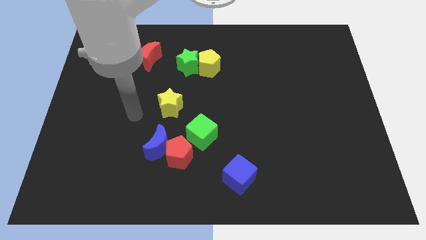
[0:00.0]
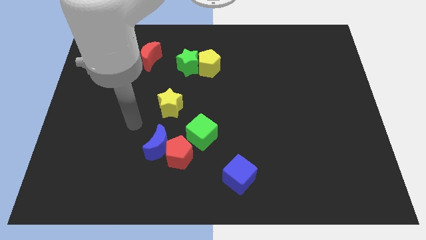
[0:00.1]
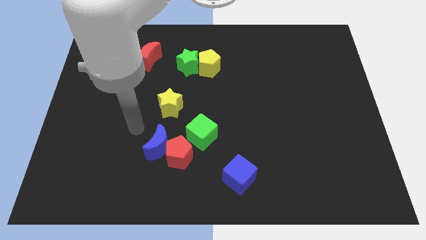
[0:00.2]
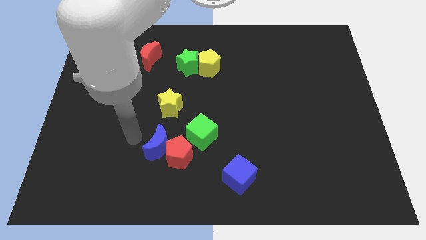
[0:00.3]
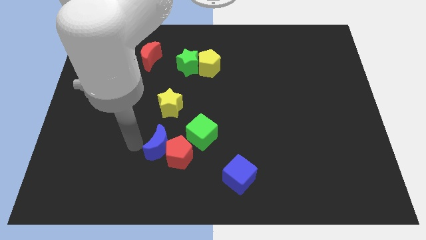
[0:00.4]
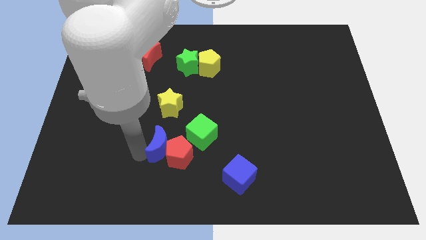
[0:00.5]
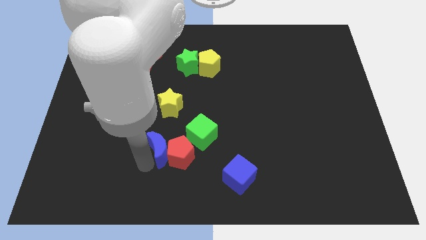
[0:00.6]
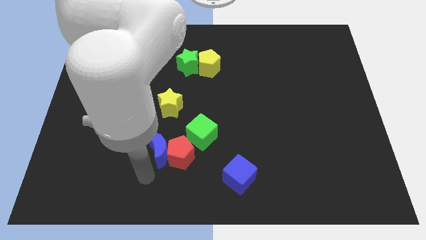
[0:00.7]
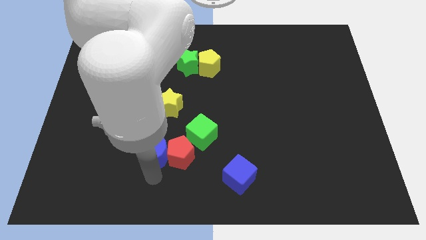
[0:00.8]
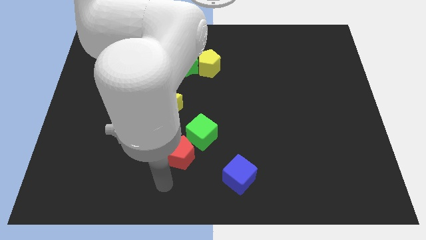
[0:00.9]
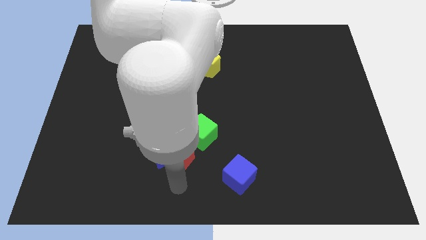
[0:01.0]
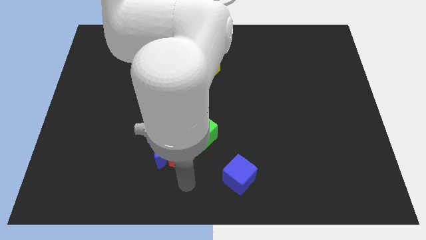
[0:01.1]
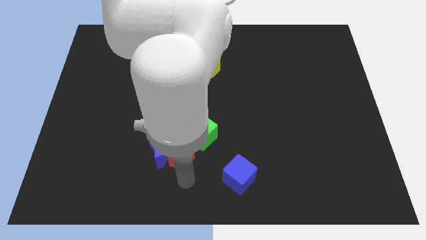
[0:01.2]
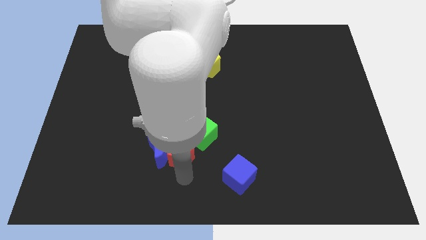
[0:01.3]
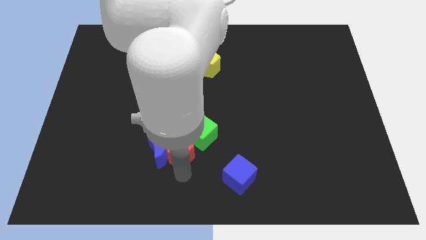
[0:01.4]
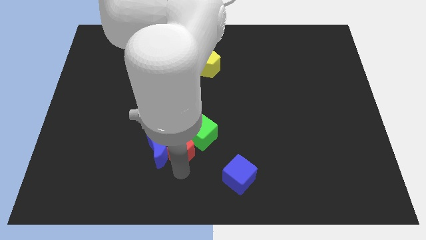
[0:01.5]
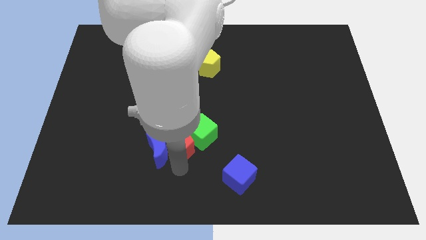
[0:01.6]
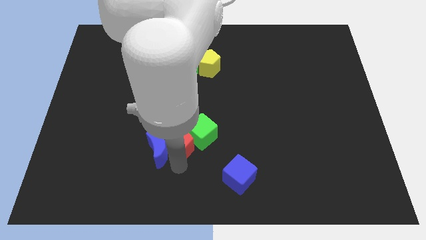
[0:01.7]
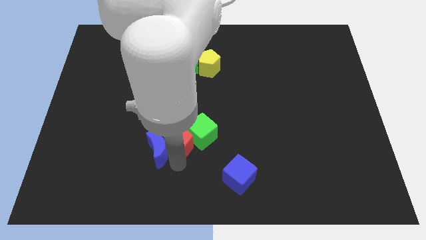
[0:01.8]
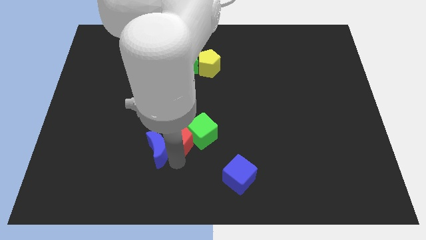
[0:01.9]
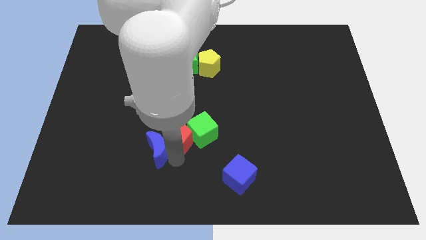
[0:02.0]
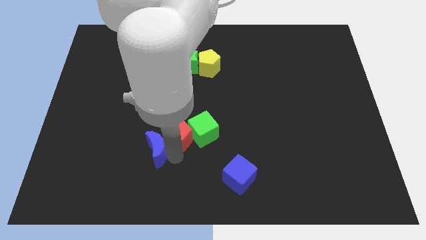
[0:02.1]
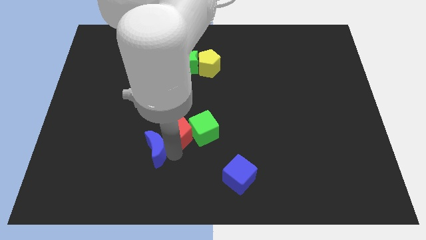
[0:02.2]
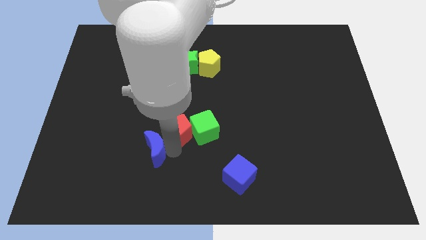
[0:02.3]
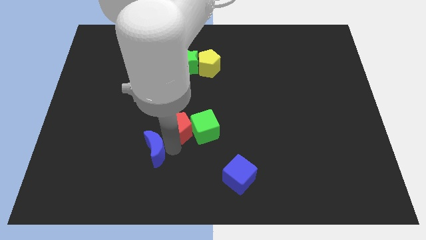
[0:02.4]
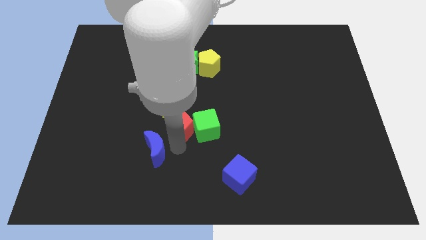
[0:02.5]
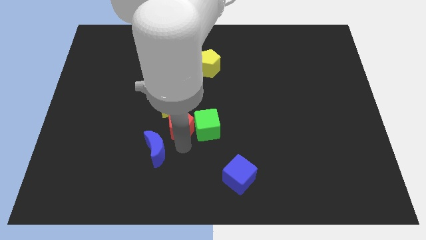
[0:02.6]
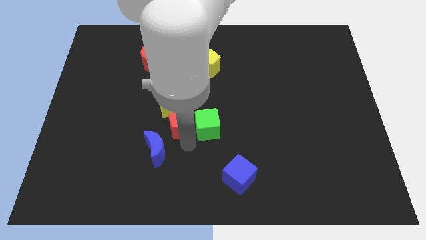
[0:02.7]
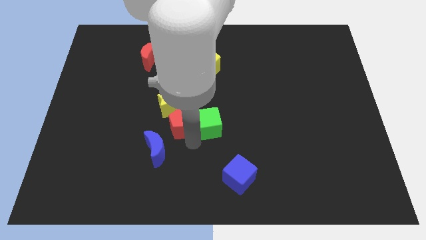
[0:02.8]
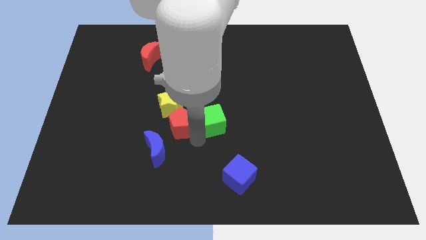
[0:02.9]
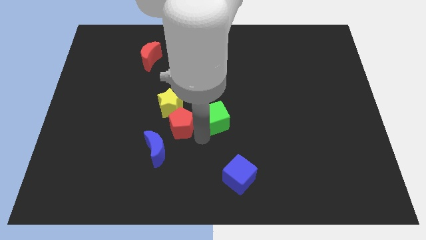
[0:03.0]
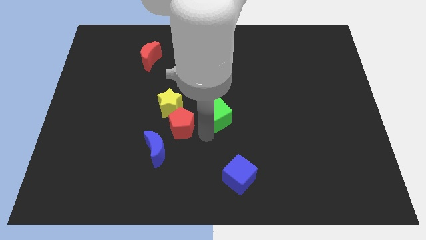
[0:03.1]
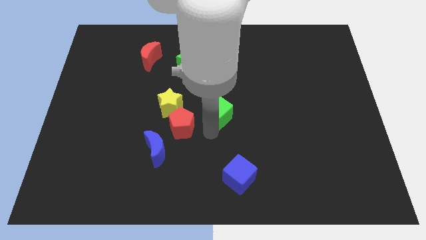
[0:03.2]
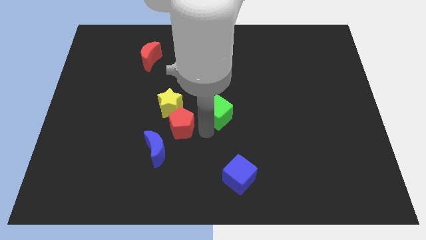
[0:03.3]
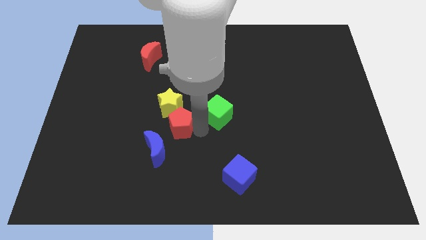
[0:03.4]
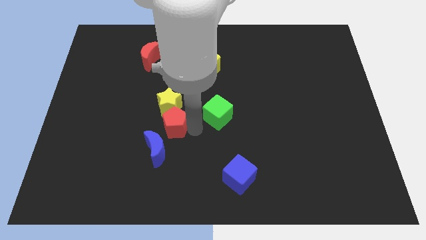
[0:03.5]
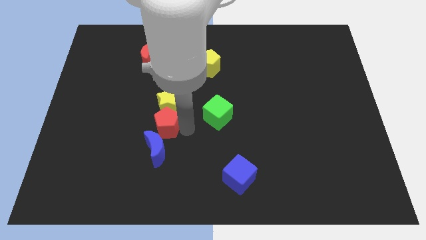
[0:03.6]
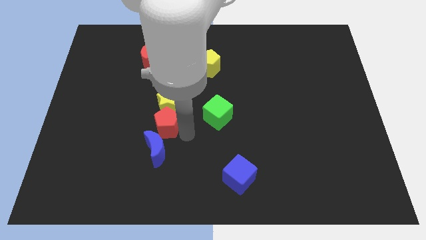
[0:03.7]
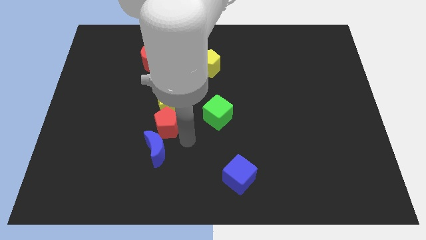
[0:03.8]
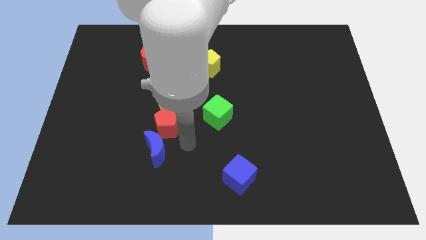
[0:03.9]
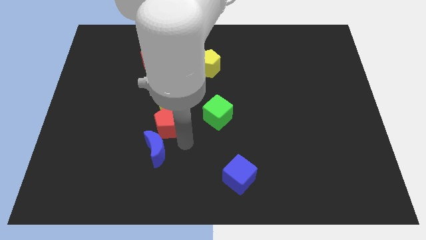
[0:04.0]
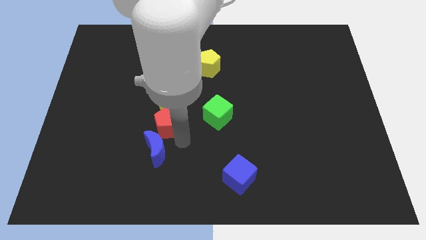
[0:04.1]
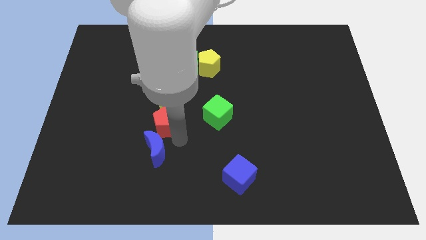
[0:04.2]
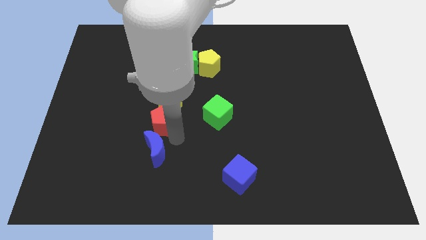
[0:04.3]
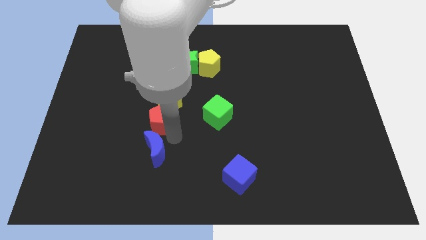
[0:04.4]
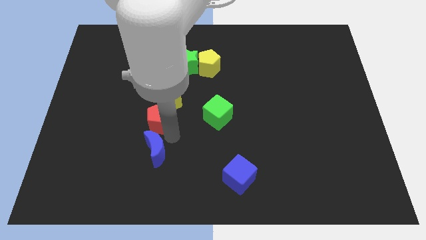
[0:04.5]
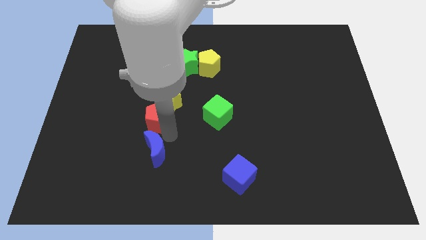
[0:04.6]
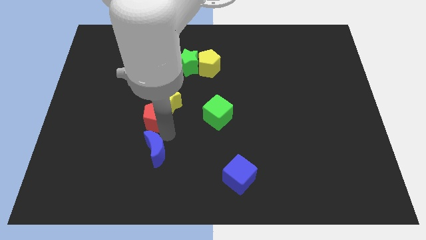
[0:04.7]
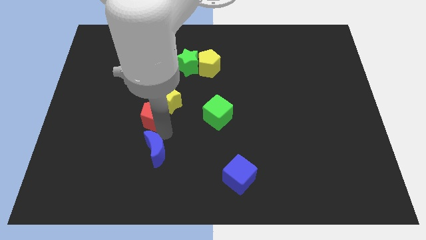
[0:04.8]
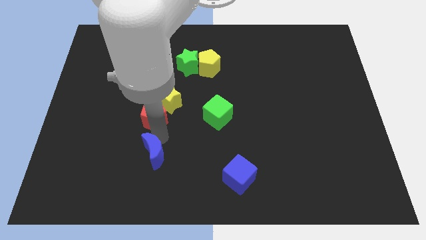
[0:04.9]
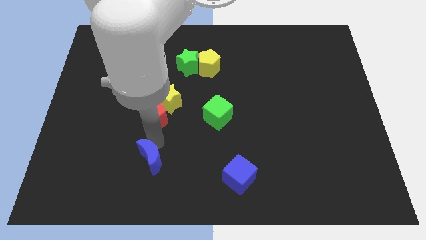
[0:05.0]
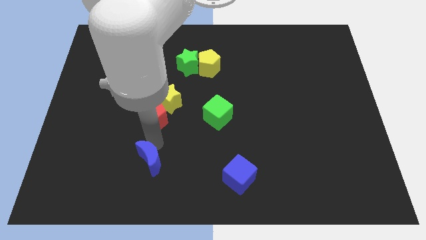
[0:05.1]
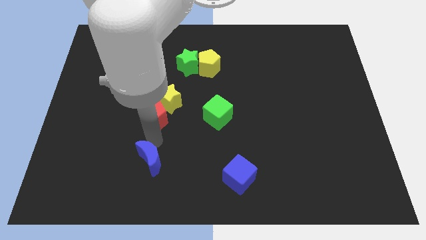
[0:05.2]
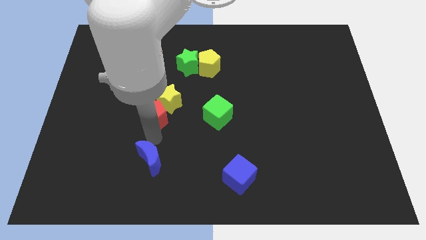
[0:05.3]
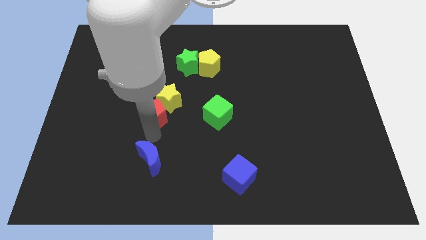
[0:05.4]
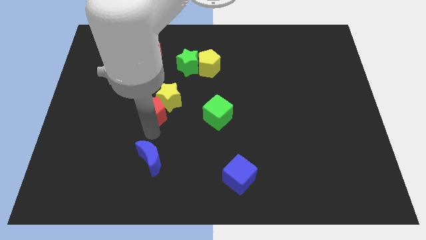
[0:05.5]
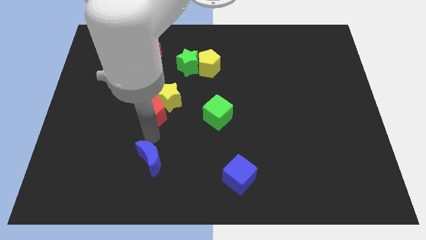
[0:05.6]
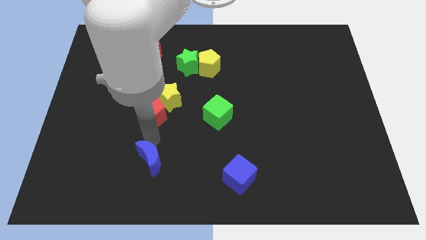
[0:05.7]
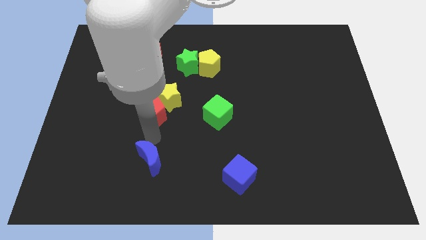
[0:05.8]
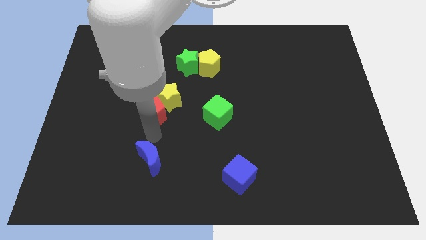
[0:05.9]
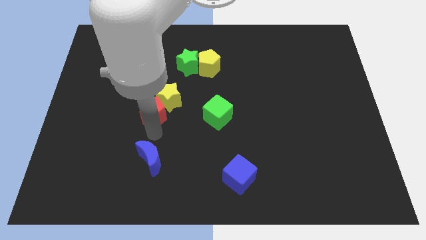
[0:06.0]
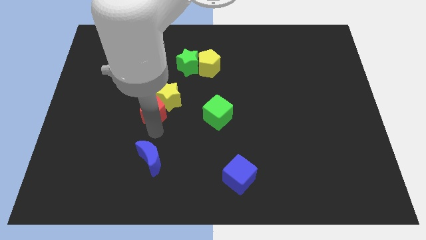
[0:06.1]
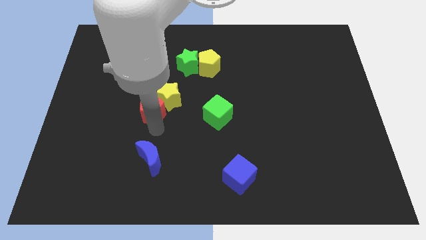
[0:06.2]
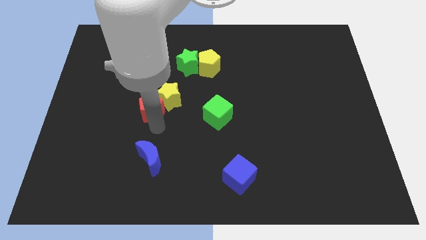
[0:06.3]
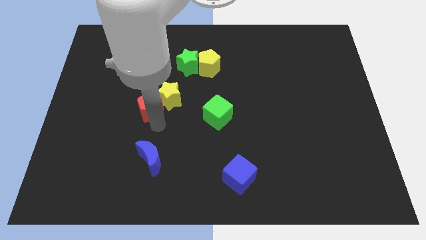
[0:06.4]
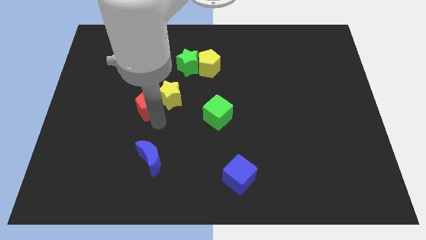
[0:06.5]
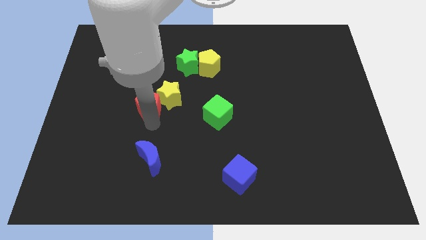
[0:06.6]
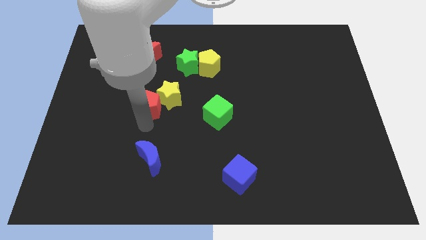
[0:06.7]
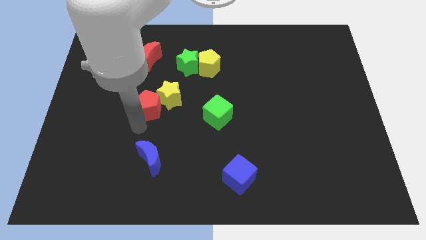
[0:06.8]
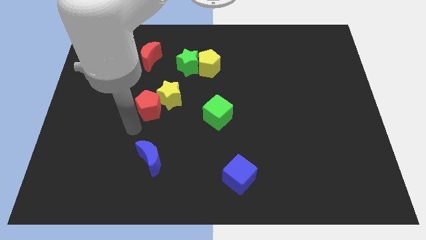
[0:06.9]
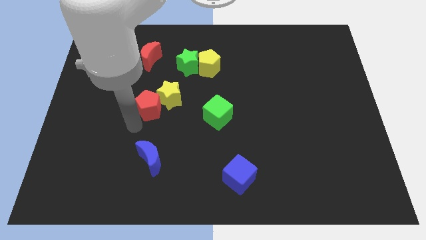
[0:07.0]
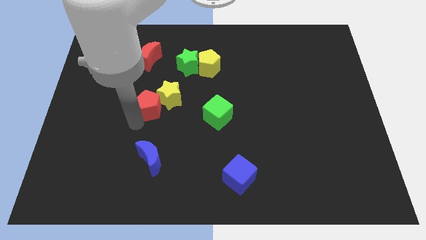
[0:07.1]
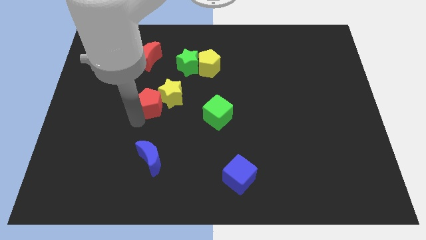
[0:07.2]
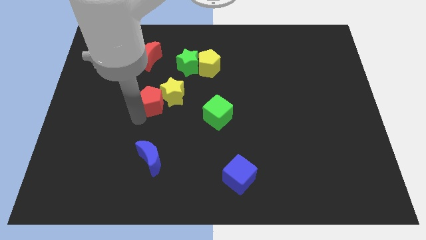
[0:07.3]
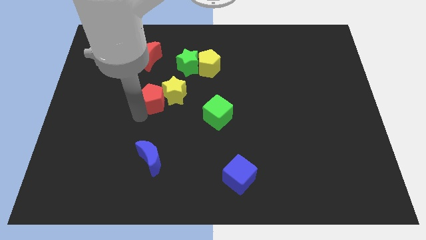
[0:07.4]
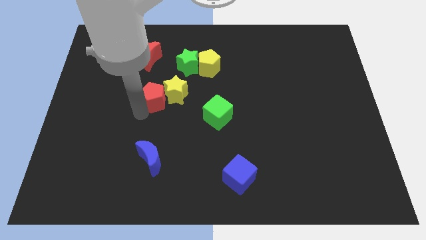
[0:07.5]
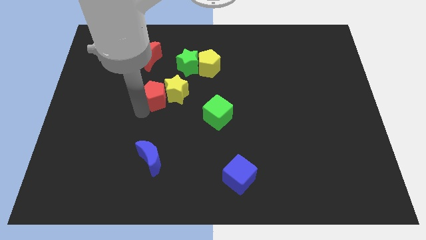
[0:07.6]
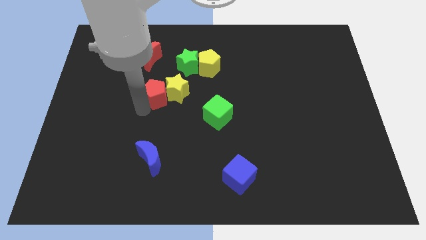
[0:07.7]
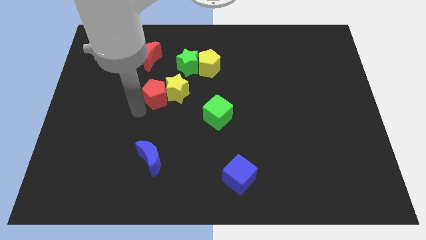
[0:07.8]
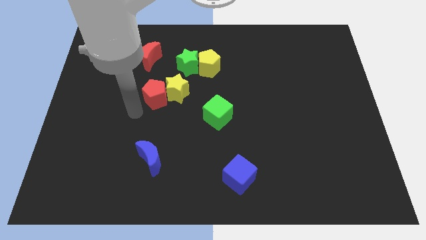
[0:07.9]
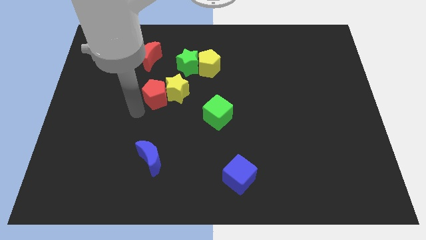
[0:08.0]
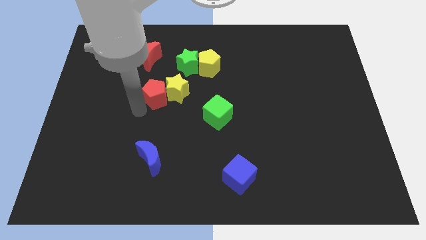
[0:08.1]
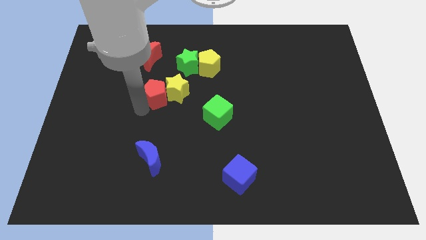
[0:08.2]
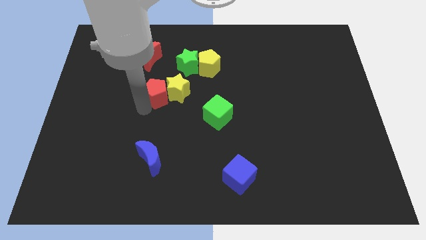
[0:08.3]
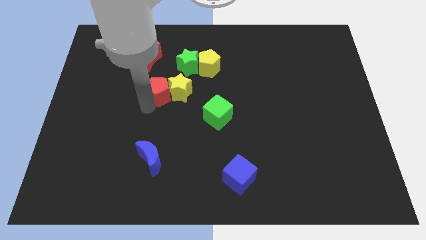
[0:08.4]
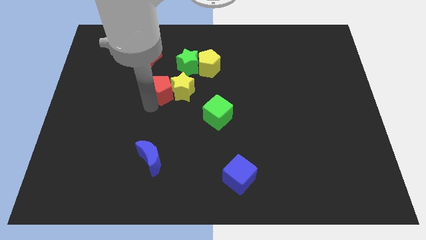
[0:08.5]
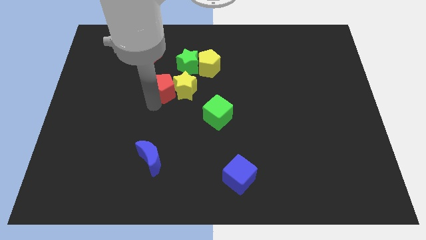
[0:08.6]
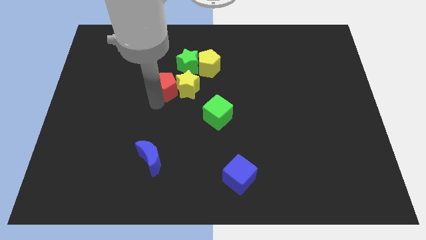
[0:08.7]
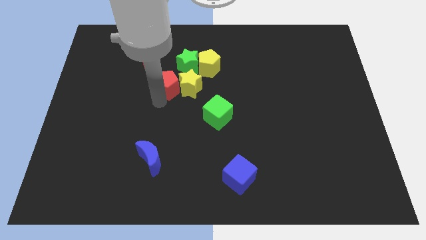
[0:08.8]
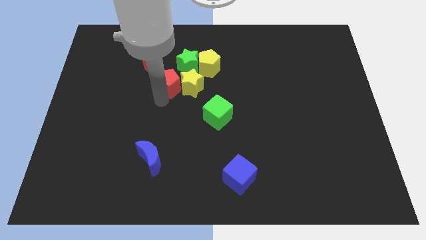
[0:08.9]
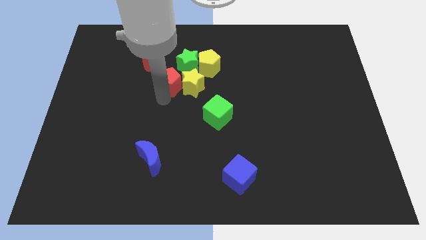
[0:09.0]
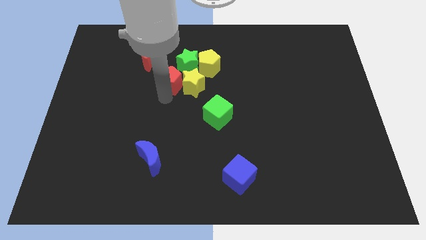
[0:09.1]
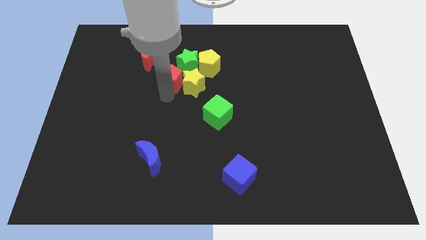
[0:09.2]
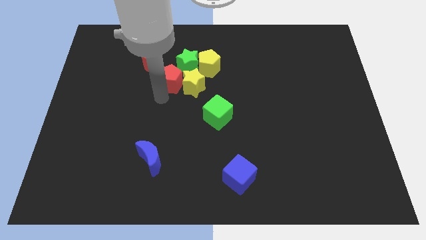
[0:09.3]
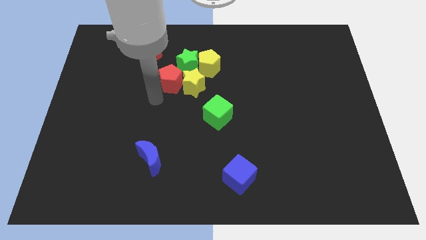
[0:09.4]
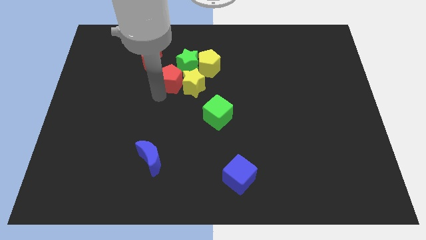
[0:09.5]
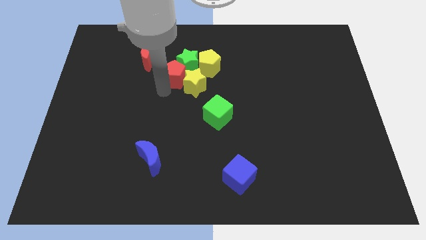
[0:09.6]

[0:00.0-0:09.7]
move the red pentagon to the green star
